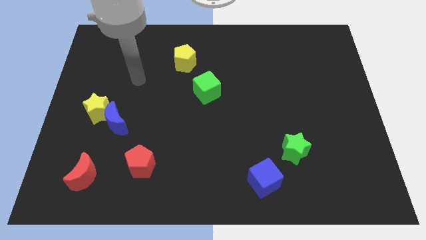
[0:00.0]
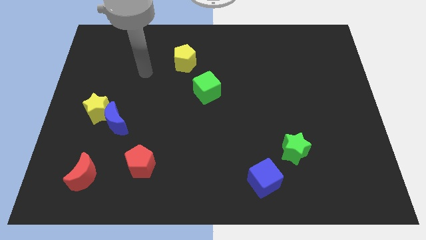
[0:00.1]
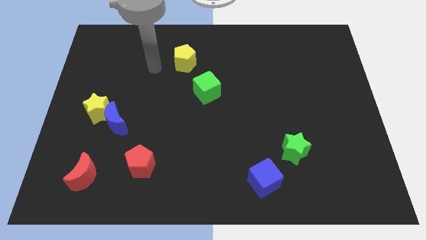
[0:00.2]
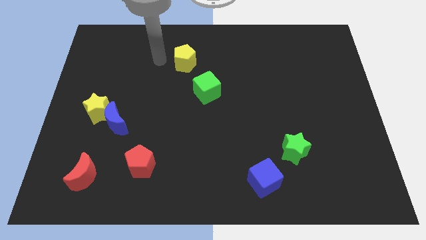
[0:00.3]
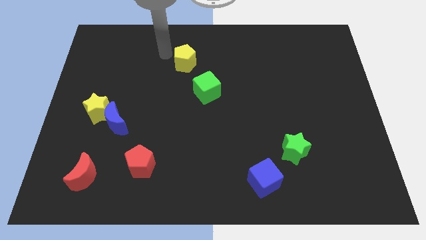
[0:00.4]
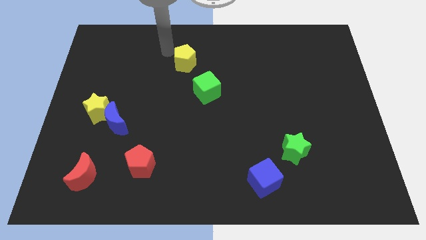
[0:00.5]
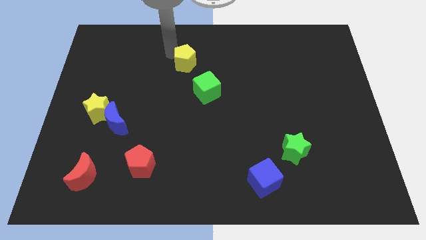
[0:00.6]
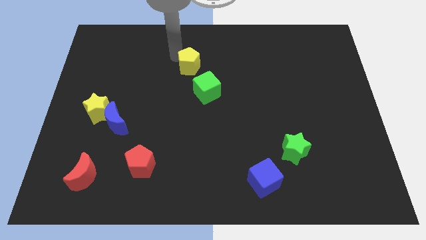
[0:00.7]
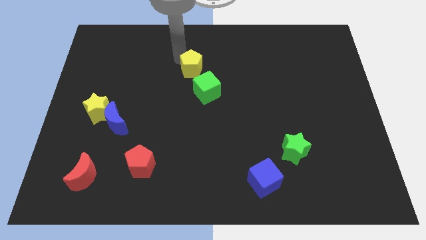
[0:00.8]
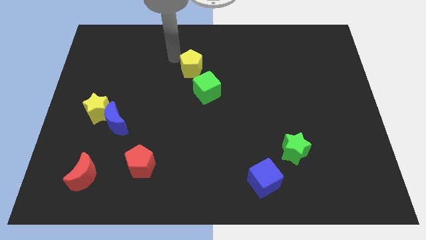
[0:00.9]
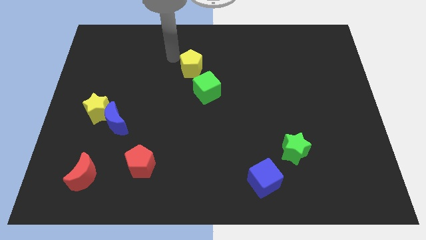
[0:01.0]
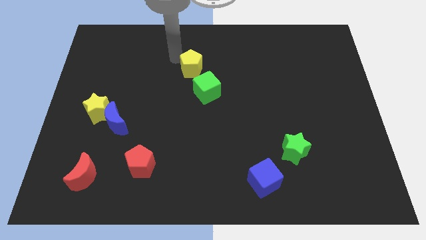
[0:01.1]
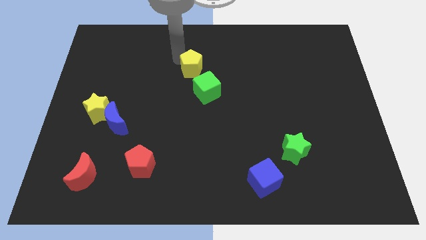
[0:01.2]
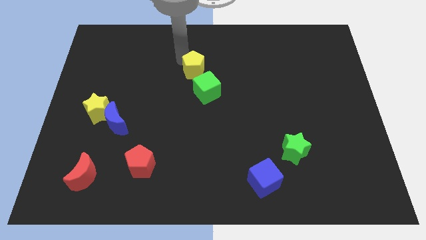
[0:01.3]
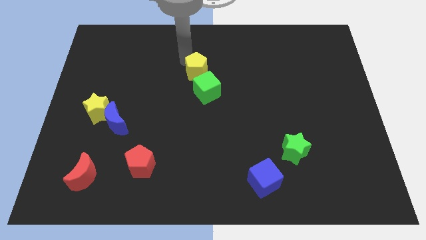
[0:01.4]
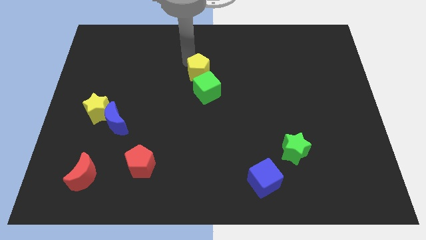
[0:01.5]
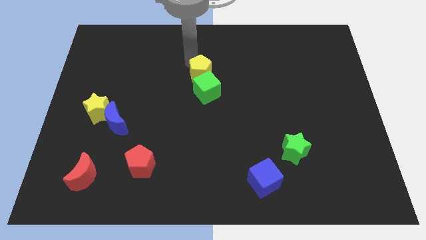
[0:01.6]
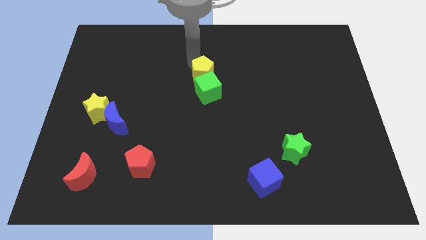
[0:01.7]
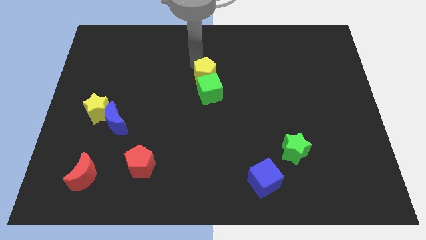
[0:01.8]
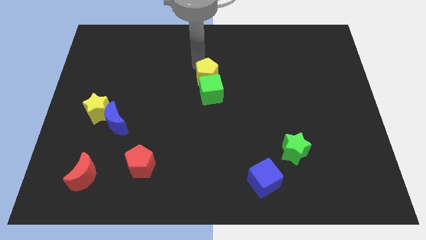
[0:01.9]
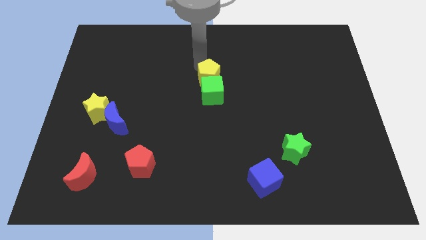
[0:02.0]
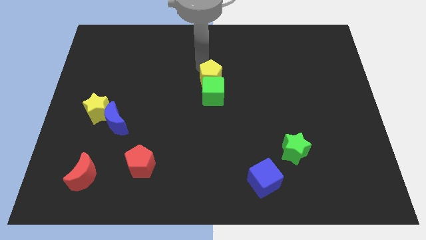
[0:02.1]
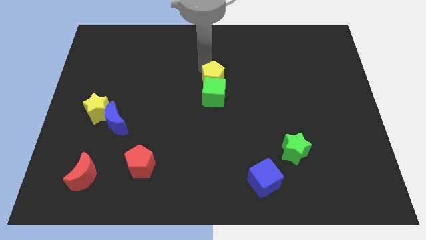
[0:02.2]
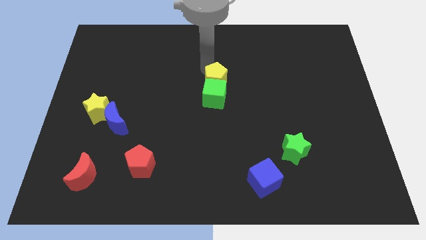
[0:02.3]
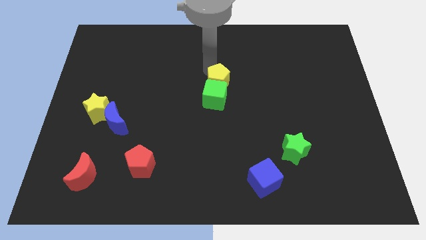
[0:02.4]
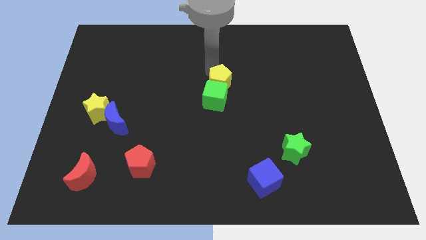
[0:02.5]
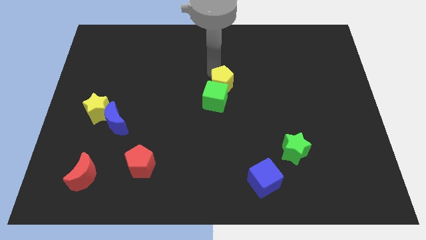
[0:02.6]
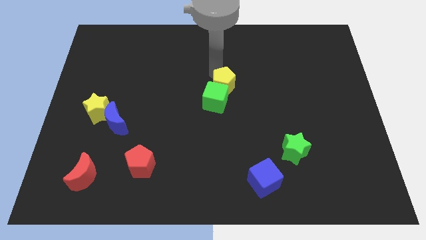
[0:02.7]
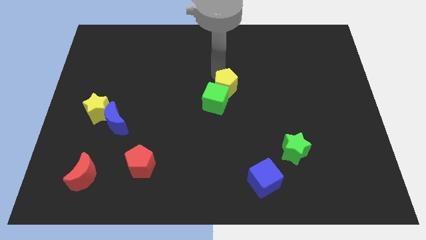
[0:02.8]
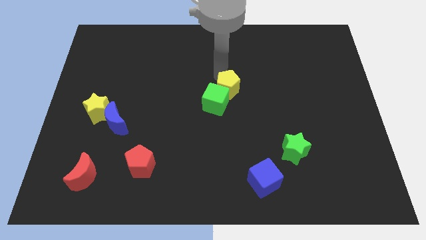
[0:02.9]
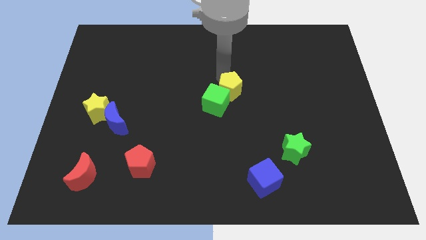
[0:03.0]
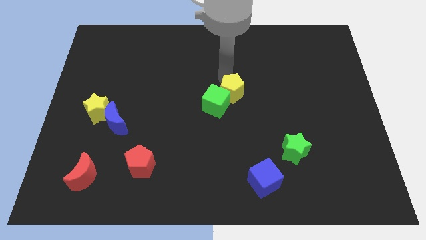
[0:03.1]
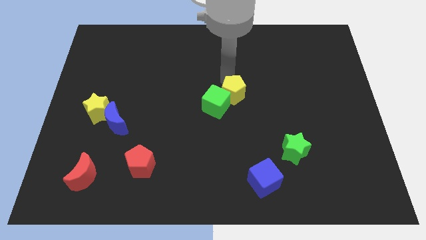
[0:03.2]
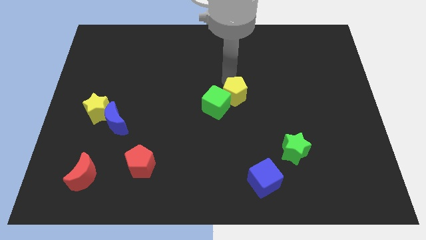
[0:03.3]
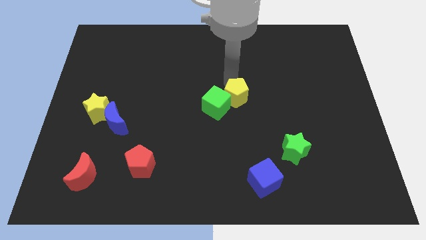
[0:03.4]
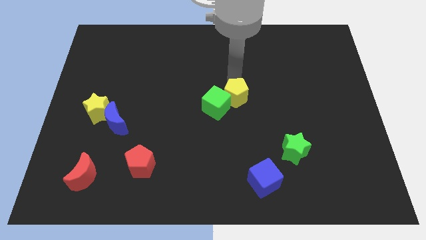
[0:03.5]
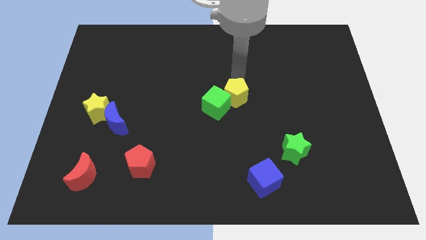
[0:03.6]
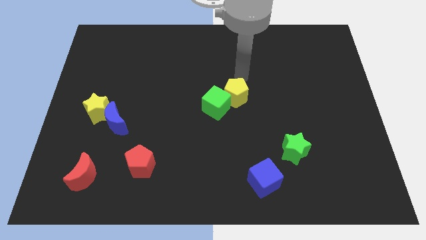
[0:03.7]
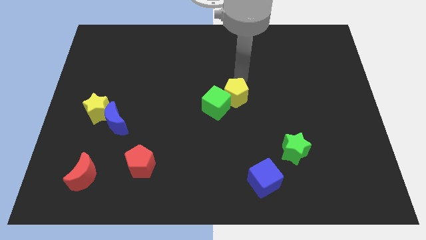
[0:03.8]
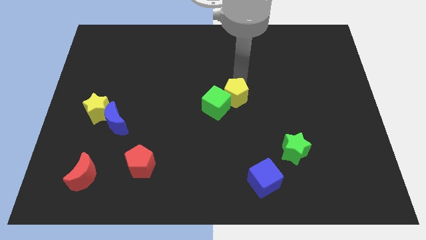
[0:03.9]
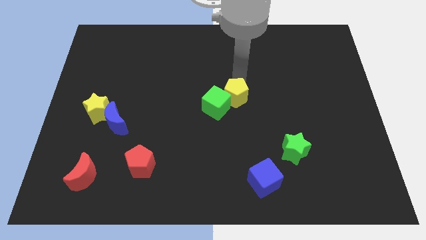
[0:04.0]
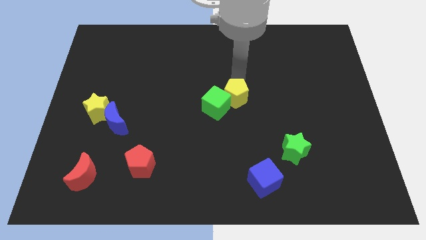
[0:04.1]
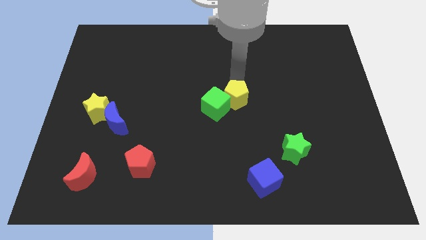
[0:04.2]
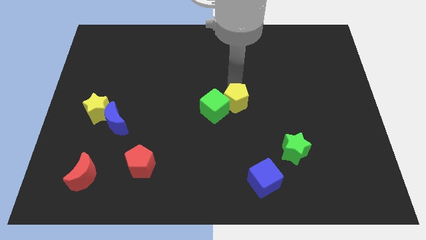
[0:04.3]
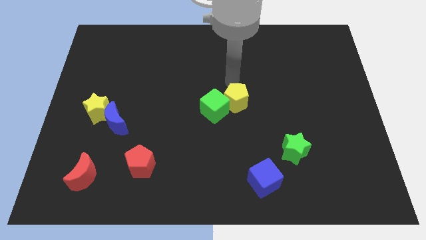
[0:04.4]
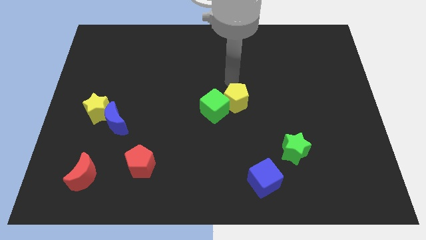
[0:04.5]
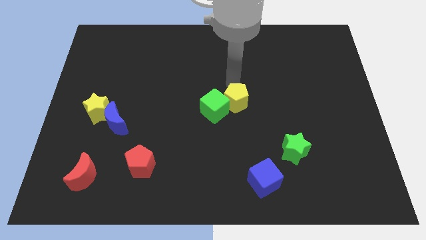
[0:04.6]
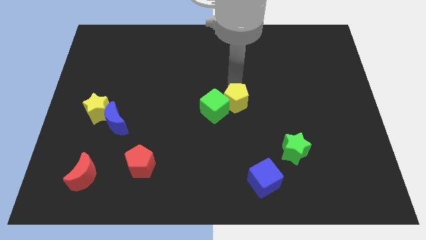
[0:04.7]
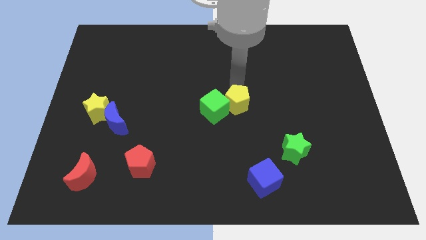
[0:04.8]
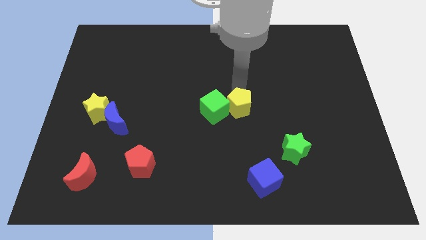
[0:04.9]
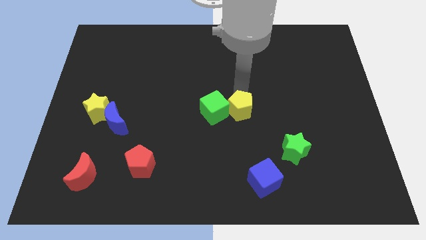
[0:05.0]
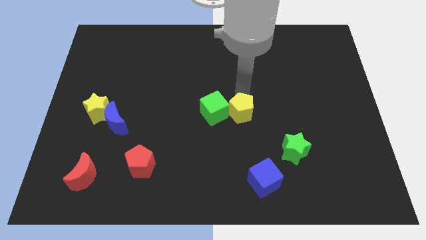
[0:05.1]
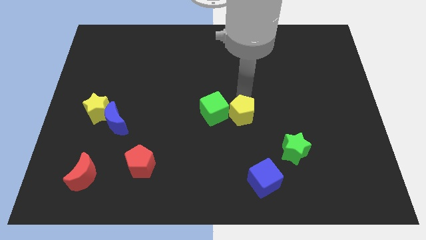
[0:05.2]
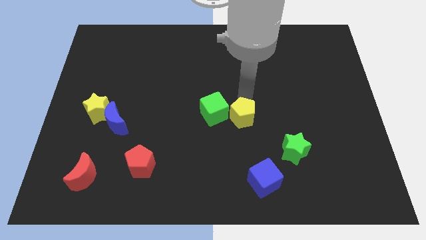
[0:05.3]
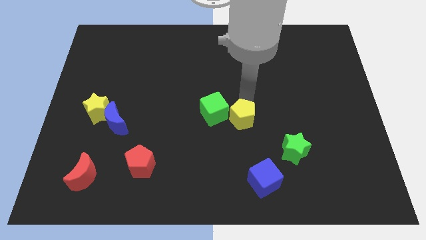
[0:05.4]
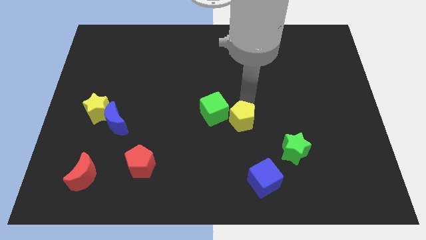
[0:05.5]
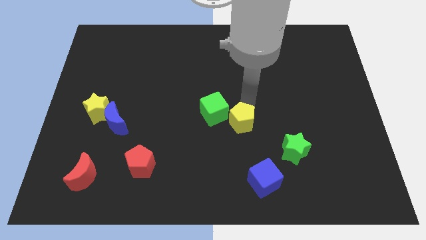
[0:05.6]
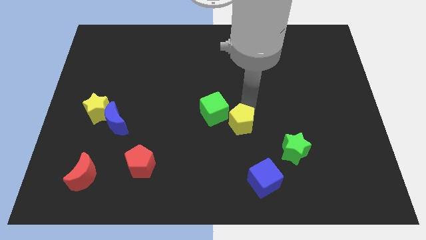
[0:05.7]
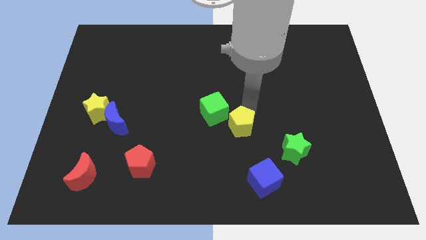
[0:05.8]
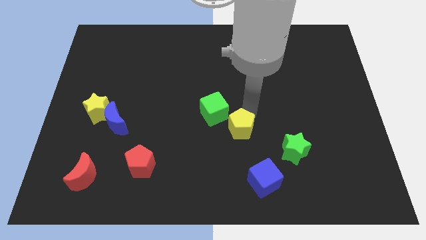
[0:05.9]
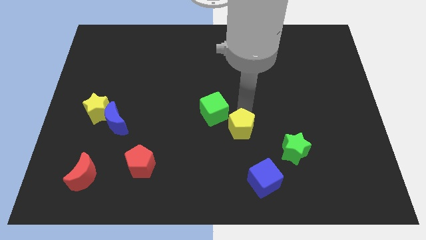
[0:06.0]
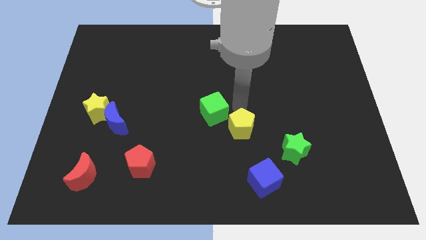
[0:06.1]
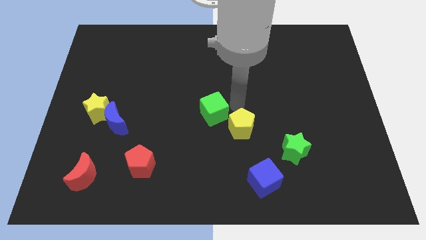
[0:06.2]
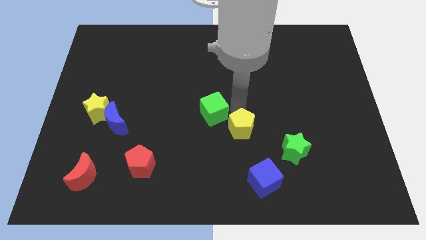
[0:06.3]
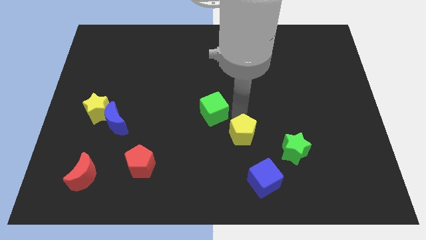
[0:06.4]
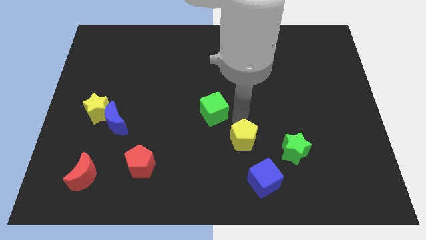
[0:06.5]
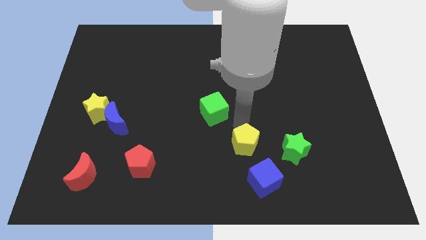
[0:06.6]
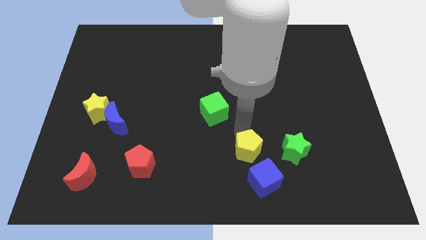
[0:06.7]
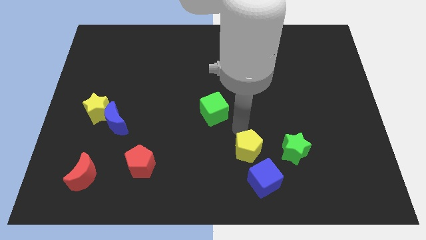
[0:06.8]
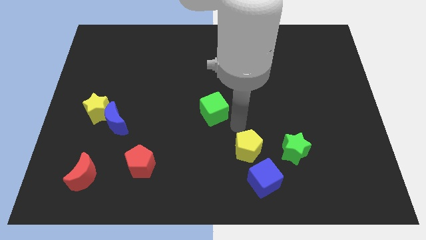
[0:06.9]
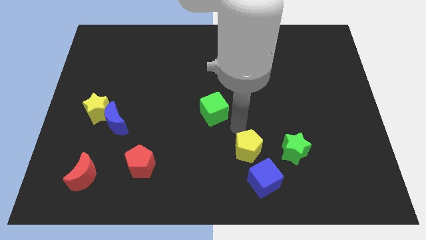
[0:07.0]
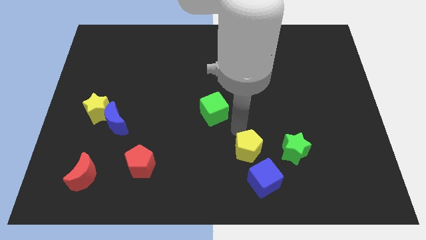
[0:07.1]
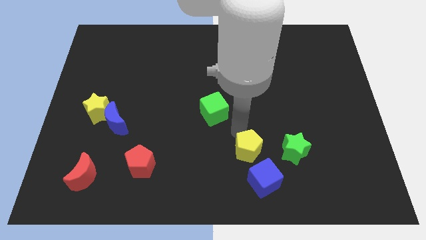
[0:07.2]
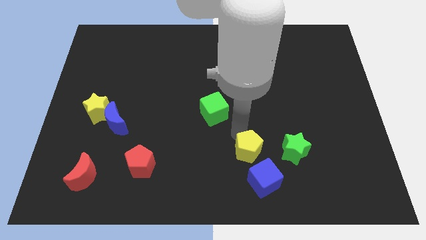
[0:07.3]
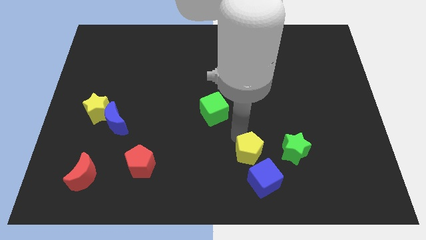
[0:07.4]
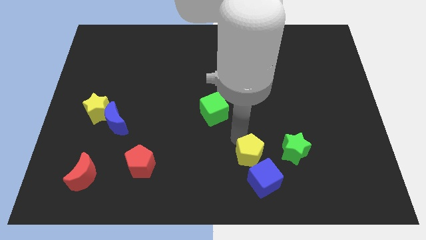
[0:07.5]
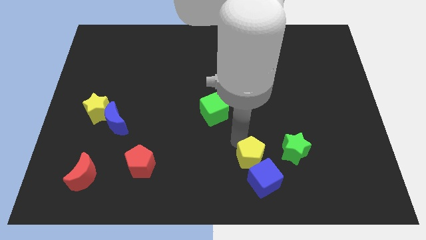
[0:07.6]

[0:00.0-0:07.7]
push the yellow pentagon to the blue cube

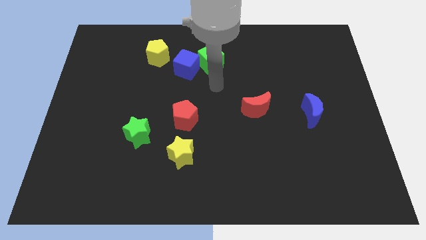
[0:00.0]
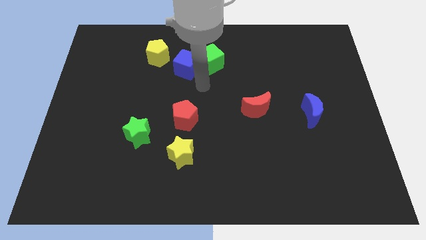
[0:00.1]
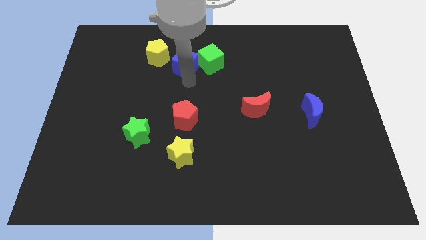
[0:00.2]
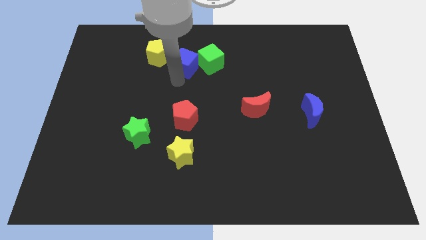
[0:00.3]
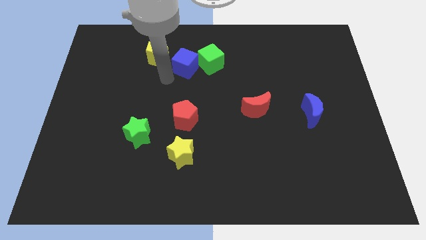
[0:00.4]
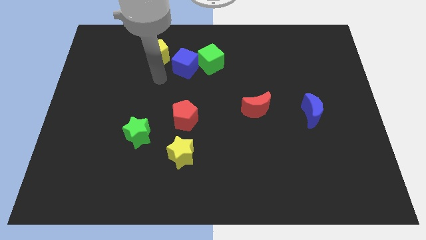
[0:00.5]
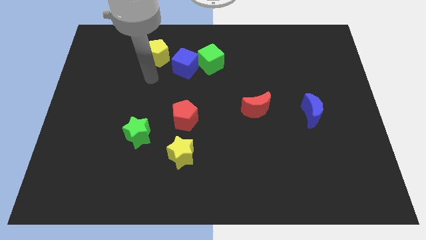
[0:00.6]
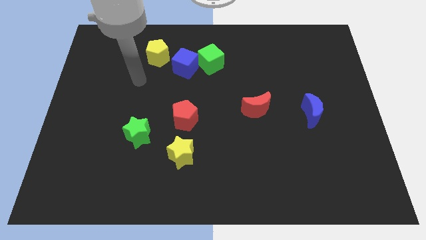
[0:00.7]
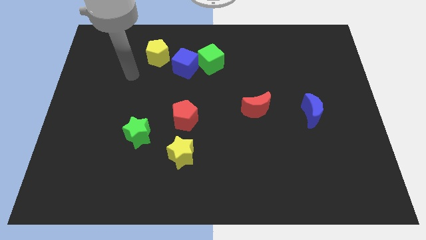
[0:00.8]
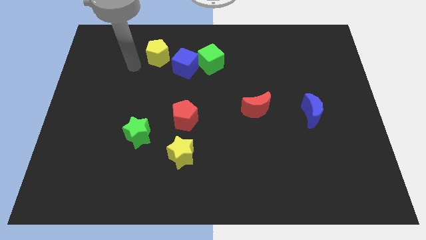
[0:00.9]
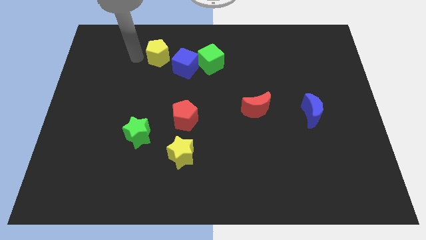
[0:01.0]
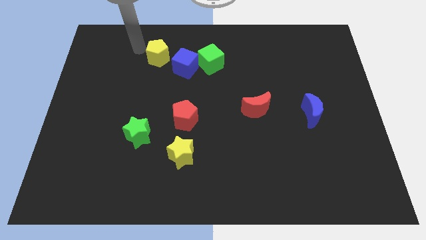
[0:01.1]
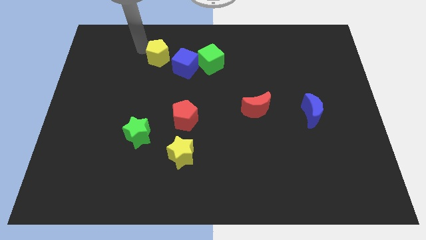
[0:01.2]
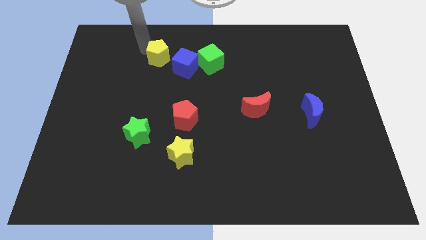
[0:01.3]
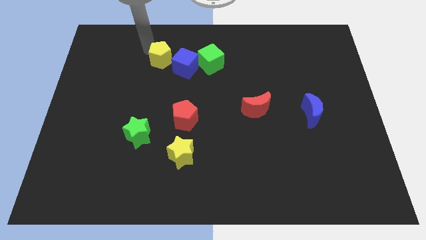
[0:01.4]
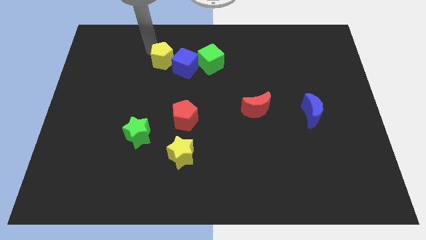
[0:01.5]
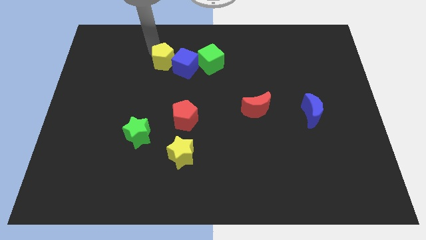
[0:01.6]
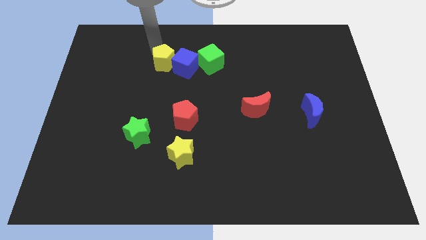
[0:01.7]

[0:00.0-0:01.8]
put the yellow pentagon to the blue cube
